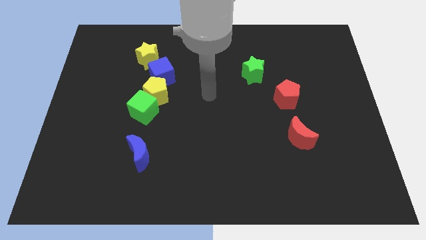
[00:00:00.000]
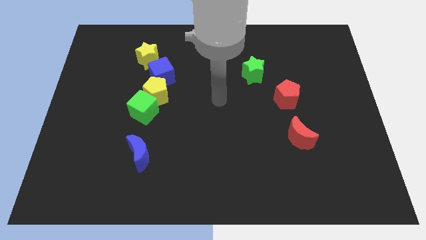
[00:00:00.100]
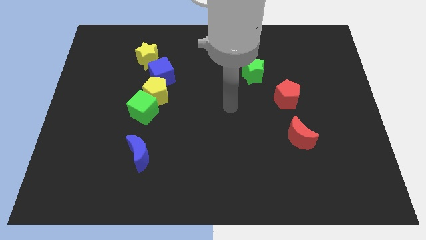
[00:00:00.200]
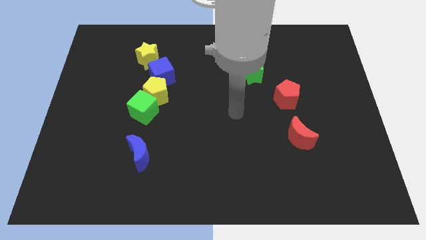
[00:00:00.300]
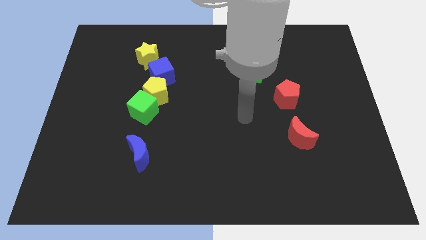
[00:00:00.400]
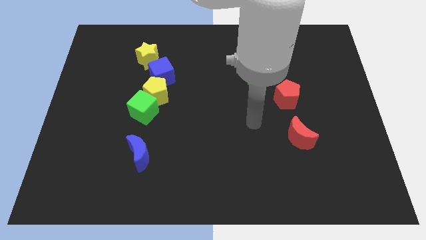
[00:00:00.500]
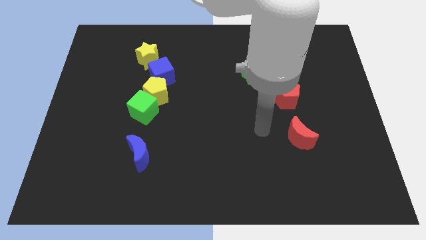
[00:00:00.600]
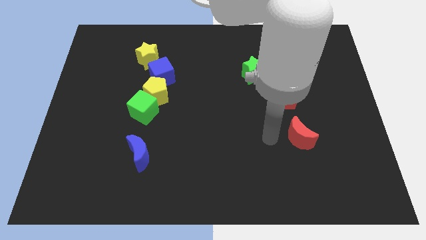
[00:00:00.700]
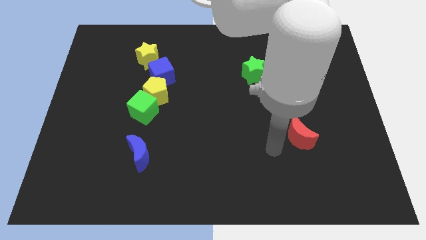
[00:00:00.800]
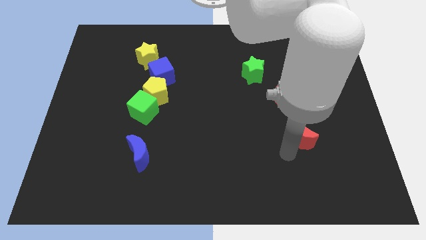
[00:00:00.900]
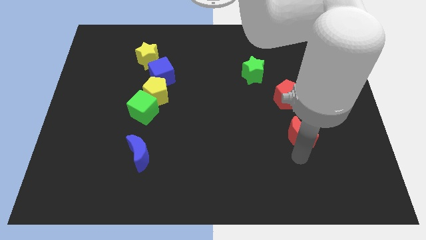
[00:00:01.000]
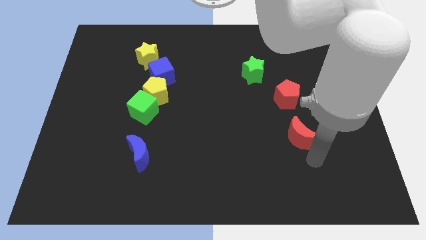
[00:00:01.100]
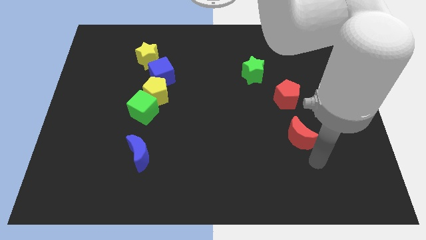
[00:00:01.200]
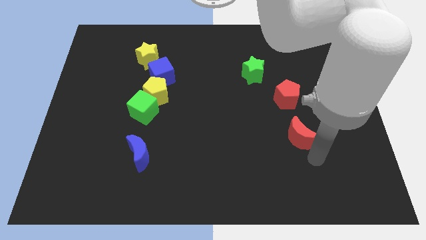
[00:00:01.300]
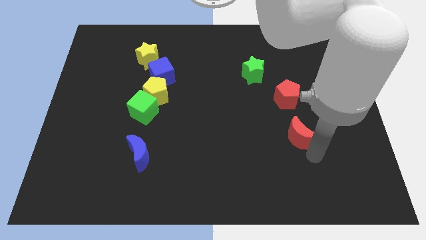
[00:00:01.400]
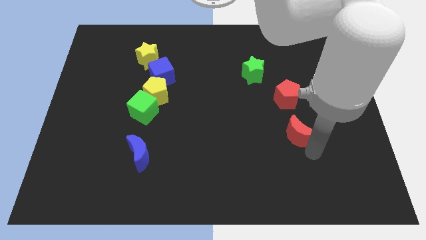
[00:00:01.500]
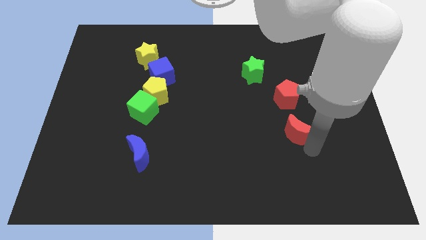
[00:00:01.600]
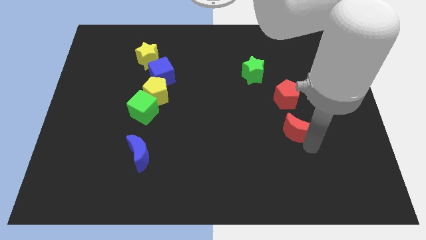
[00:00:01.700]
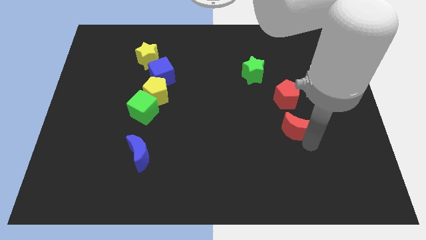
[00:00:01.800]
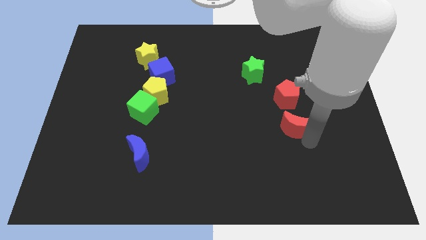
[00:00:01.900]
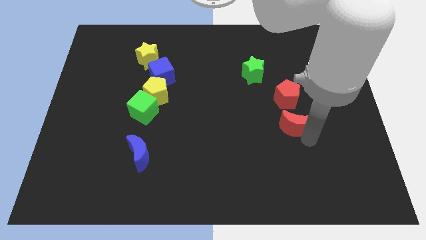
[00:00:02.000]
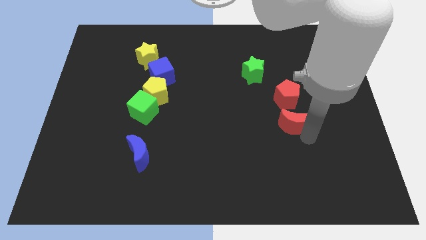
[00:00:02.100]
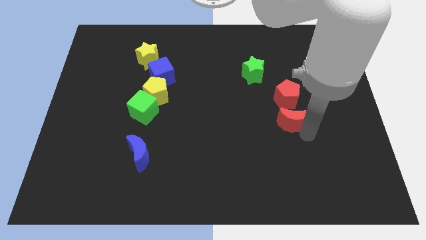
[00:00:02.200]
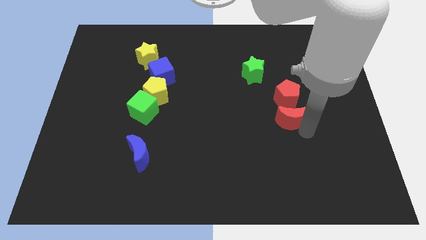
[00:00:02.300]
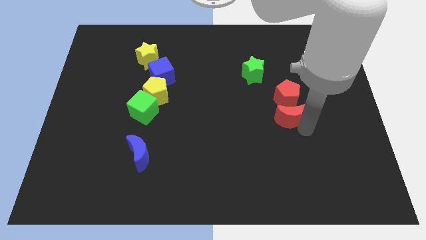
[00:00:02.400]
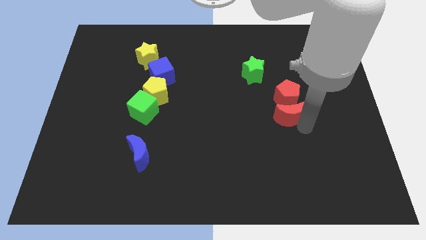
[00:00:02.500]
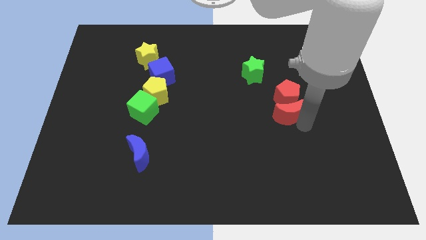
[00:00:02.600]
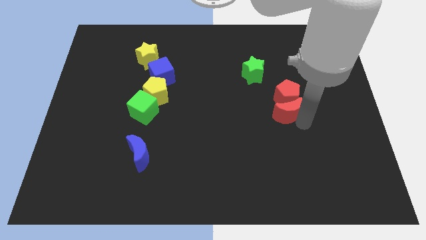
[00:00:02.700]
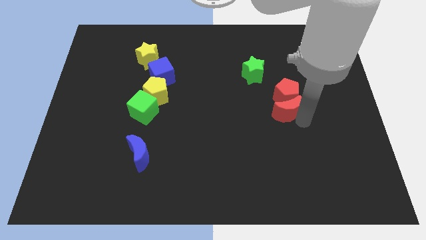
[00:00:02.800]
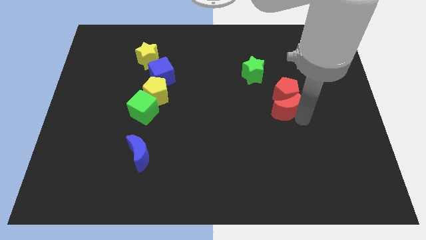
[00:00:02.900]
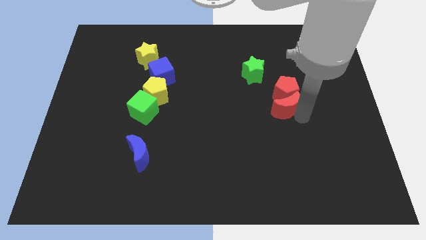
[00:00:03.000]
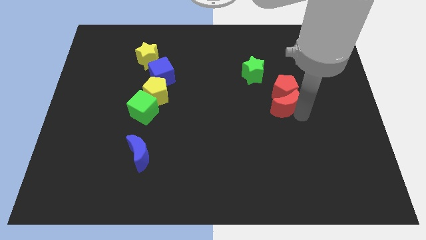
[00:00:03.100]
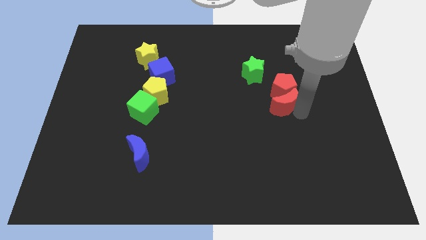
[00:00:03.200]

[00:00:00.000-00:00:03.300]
slightly push the red moon diagonally up and left

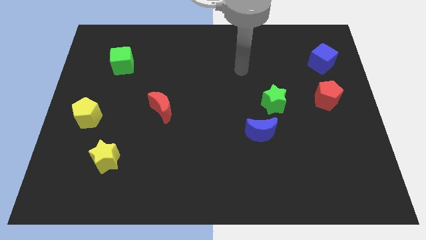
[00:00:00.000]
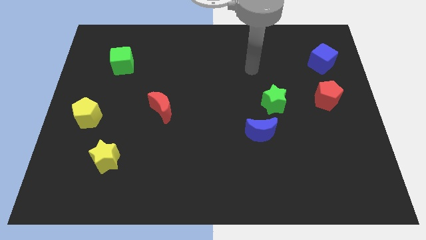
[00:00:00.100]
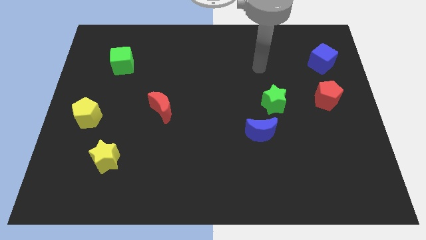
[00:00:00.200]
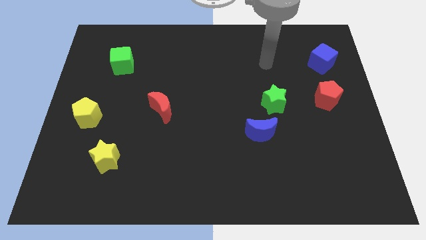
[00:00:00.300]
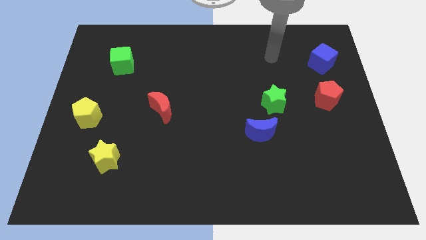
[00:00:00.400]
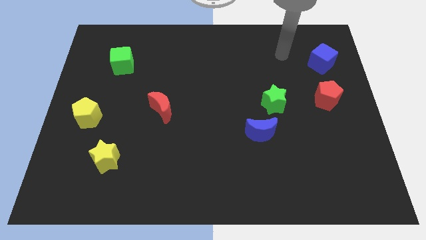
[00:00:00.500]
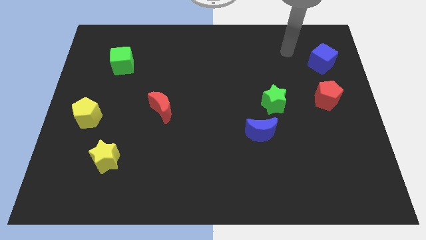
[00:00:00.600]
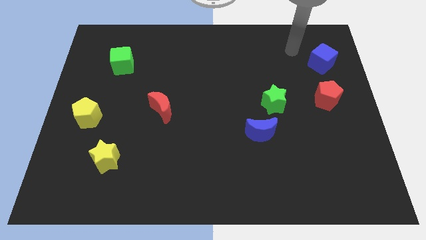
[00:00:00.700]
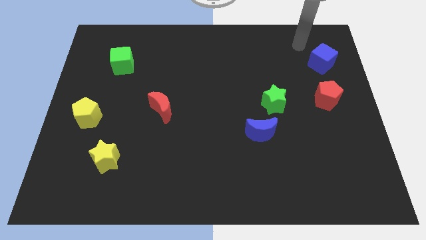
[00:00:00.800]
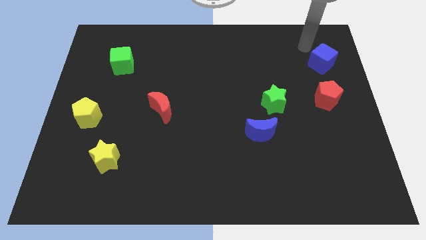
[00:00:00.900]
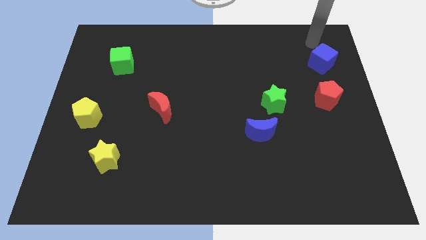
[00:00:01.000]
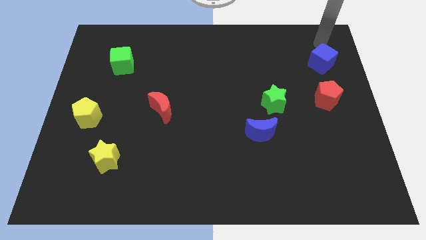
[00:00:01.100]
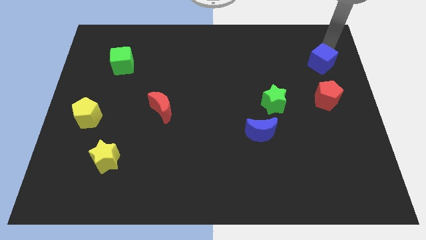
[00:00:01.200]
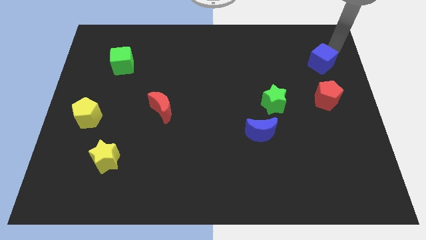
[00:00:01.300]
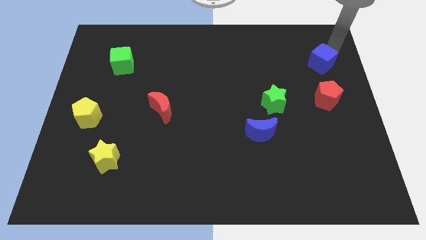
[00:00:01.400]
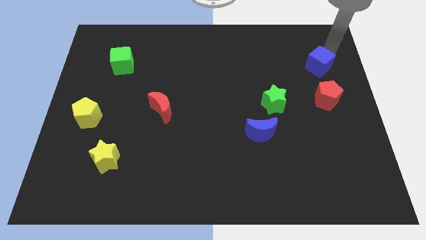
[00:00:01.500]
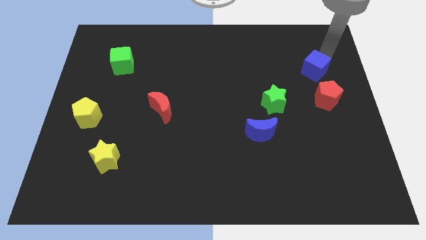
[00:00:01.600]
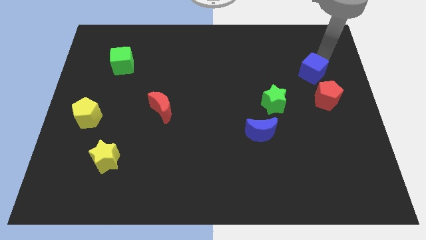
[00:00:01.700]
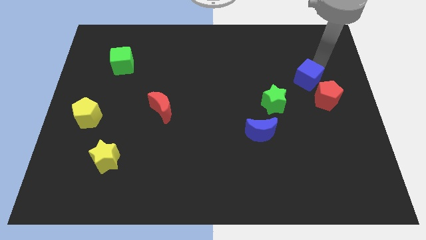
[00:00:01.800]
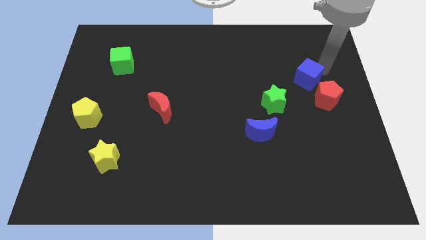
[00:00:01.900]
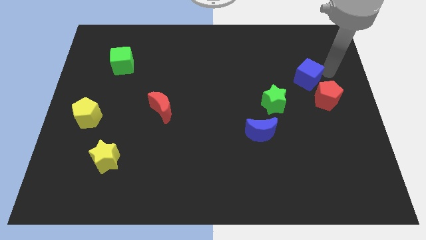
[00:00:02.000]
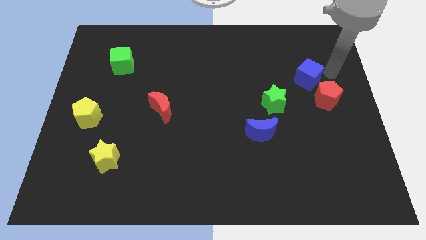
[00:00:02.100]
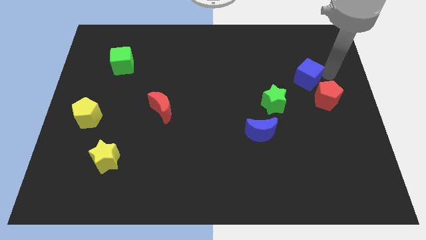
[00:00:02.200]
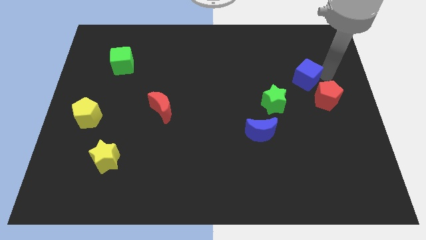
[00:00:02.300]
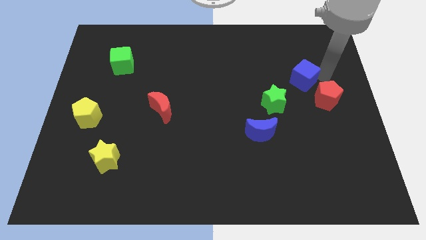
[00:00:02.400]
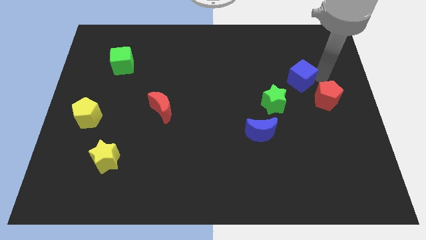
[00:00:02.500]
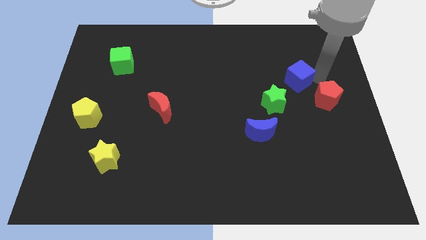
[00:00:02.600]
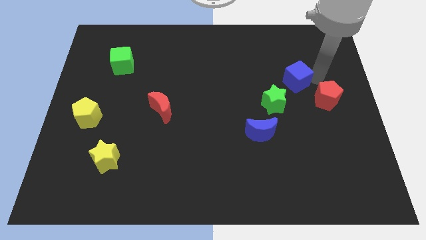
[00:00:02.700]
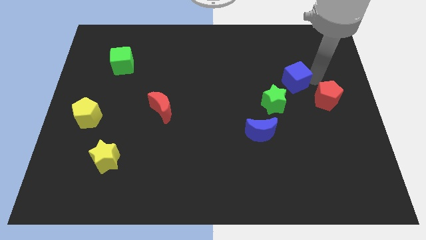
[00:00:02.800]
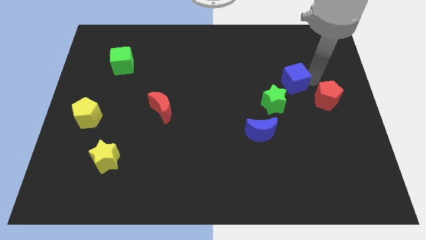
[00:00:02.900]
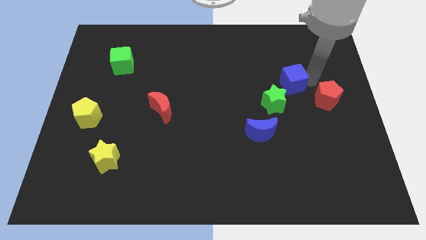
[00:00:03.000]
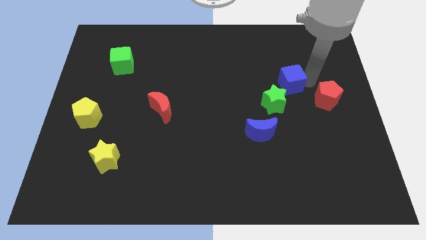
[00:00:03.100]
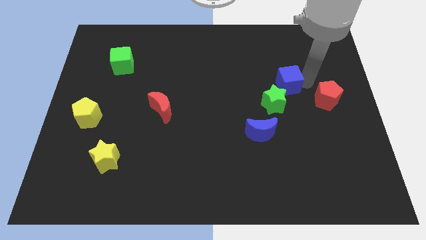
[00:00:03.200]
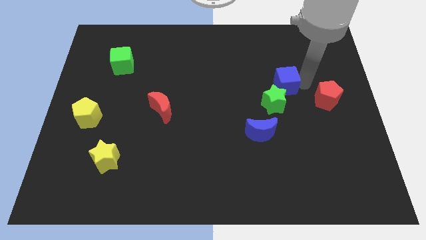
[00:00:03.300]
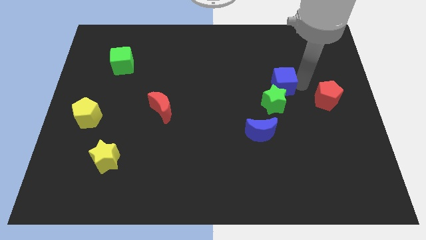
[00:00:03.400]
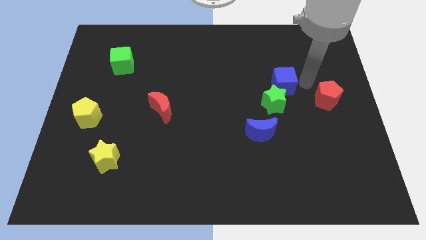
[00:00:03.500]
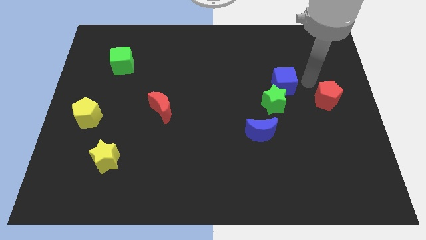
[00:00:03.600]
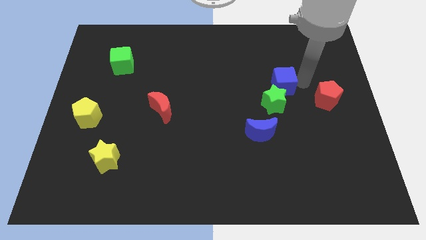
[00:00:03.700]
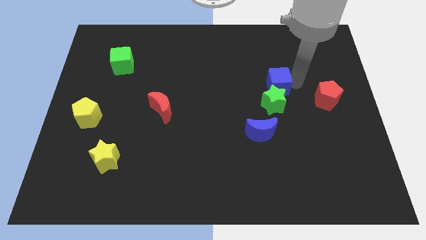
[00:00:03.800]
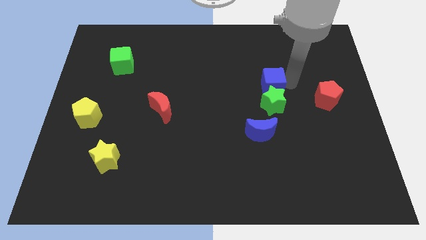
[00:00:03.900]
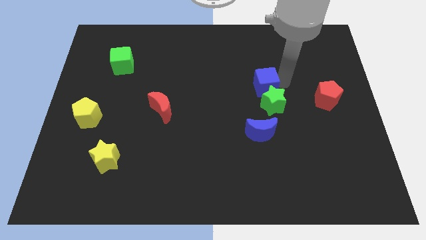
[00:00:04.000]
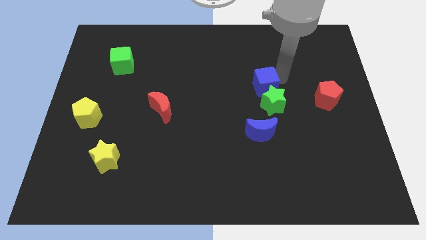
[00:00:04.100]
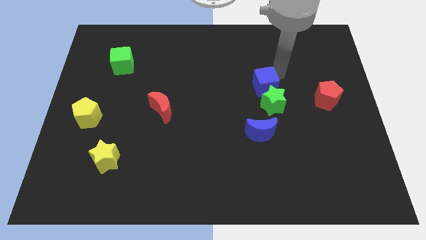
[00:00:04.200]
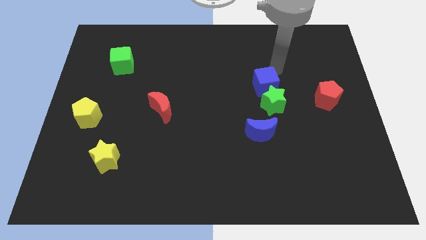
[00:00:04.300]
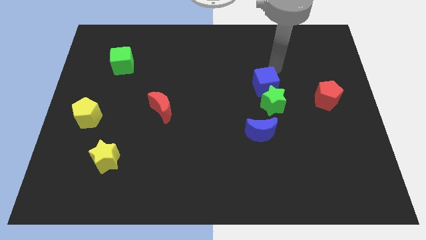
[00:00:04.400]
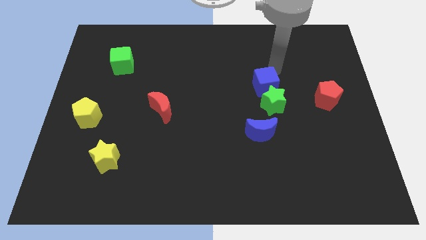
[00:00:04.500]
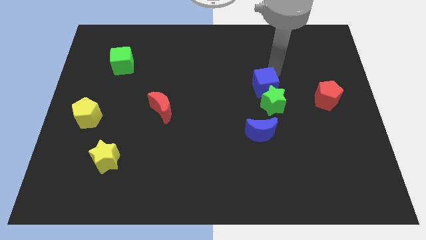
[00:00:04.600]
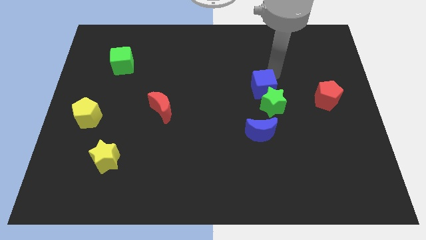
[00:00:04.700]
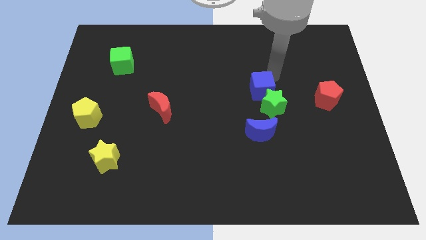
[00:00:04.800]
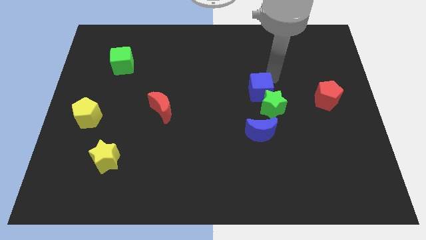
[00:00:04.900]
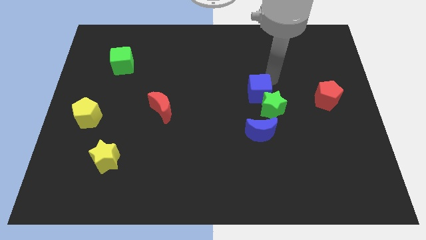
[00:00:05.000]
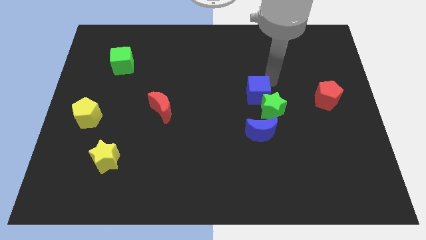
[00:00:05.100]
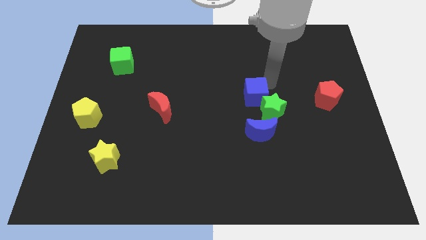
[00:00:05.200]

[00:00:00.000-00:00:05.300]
push the blue cube down and left
